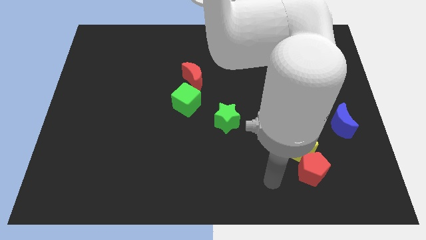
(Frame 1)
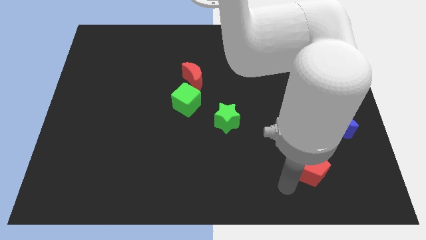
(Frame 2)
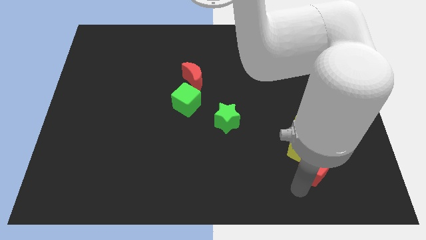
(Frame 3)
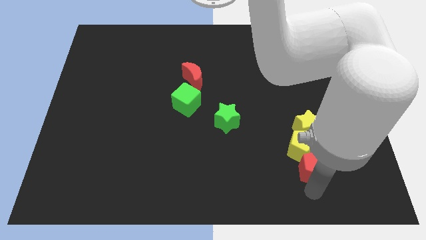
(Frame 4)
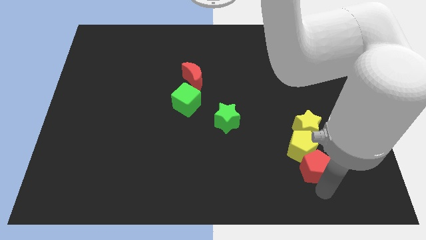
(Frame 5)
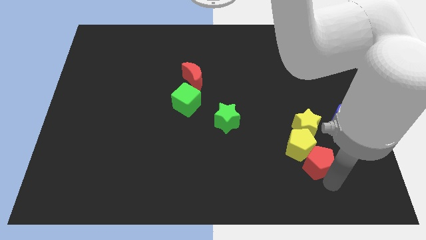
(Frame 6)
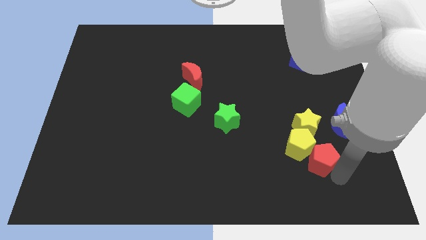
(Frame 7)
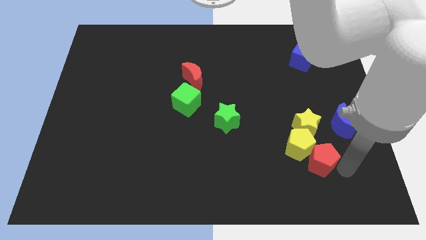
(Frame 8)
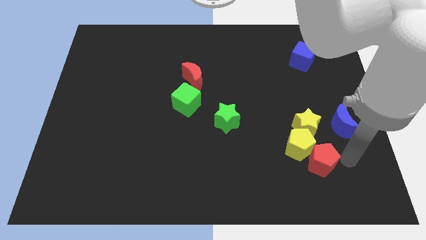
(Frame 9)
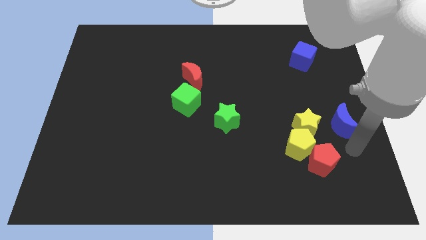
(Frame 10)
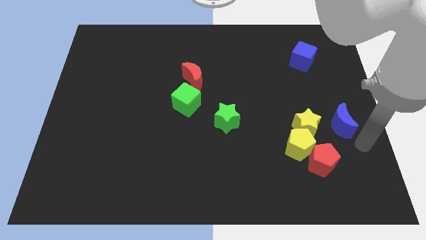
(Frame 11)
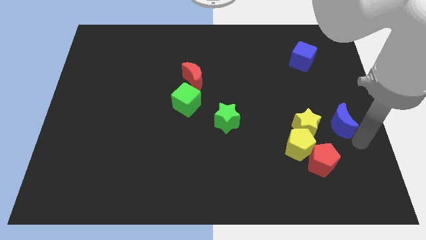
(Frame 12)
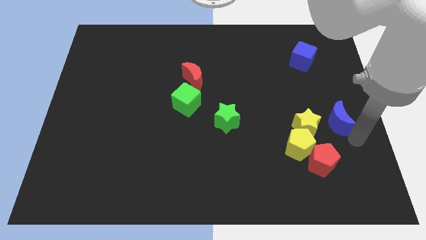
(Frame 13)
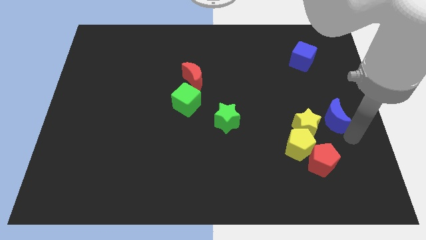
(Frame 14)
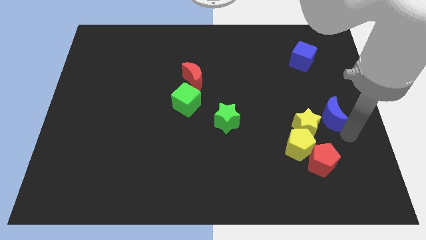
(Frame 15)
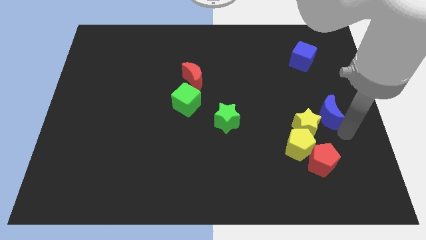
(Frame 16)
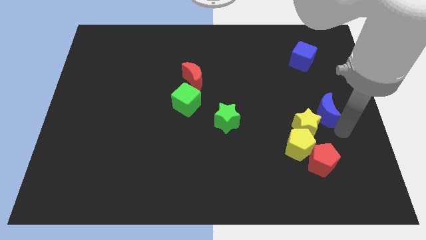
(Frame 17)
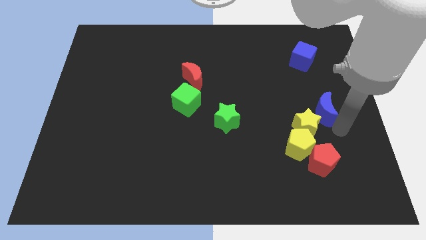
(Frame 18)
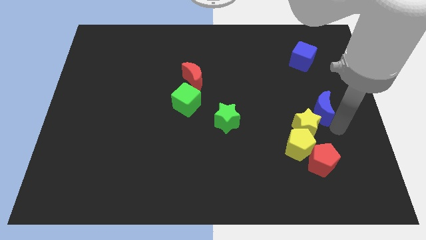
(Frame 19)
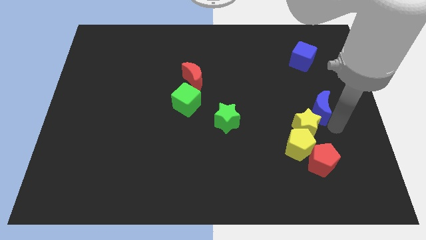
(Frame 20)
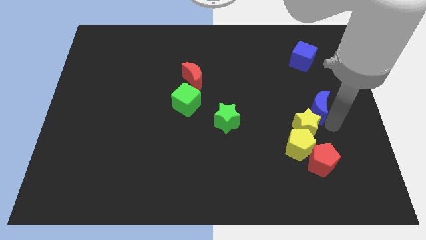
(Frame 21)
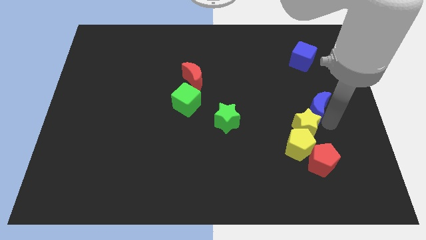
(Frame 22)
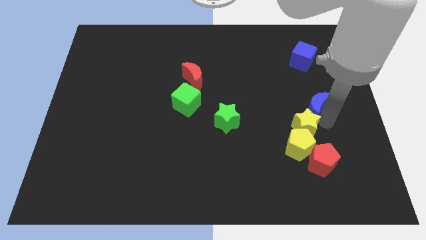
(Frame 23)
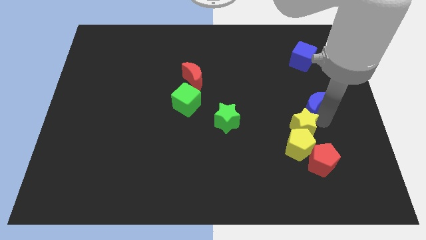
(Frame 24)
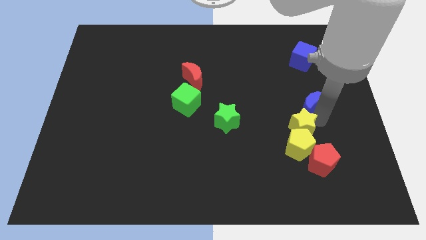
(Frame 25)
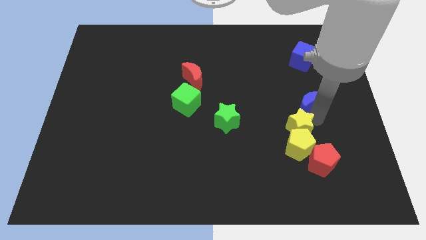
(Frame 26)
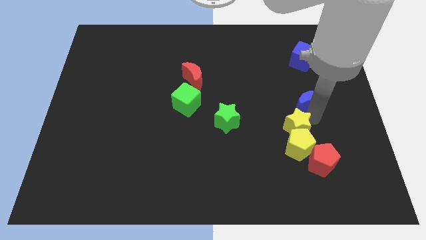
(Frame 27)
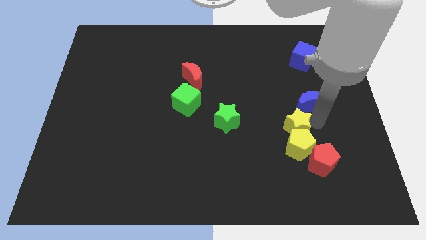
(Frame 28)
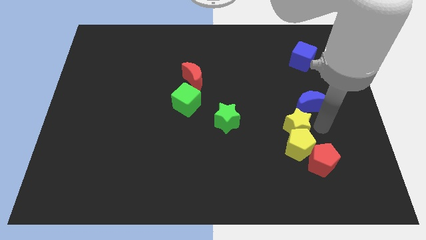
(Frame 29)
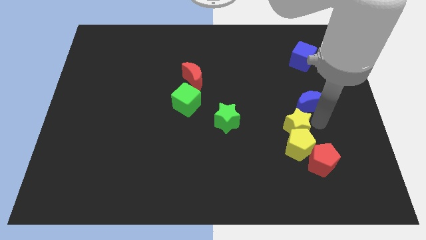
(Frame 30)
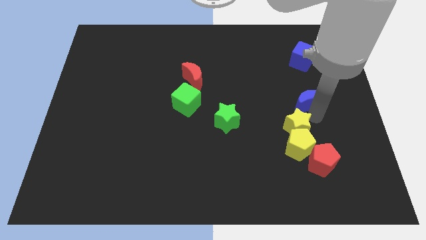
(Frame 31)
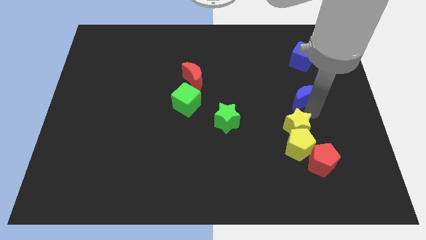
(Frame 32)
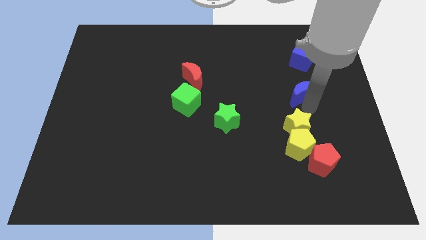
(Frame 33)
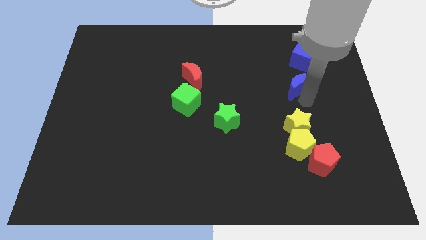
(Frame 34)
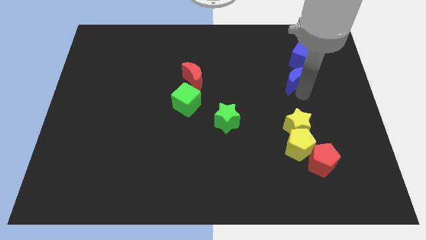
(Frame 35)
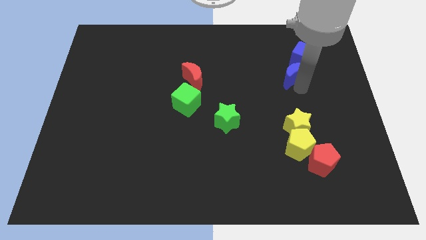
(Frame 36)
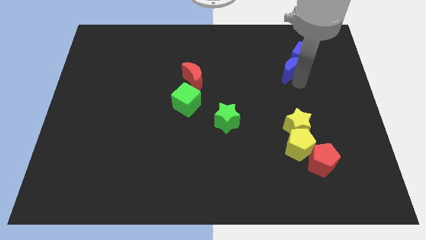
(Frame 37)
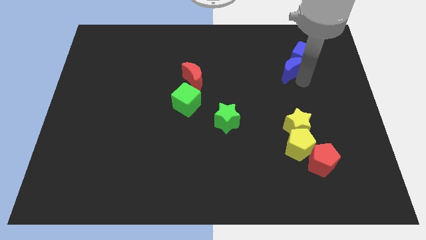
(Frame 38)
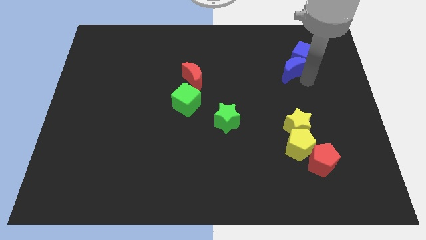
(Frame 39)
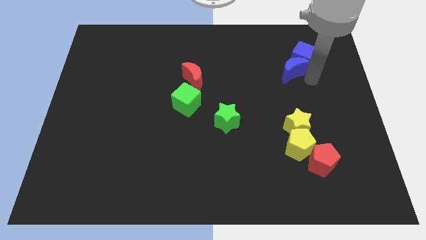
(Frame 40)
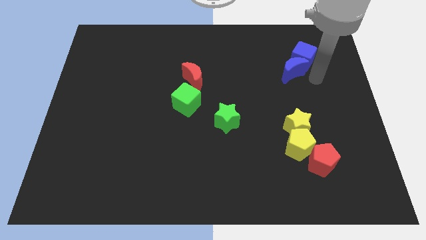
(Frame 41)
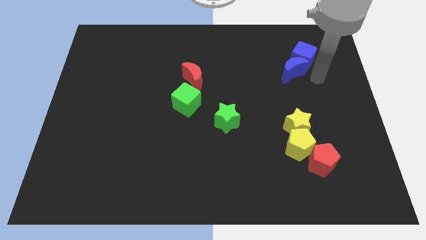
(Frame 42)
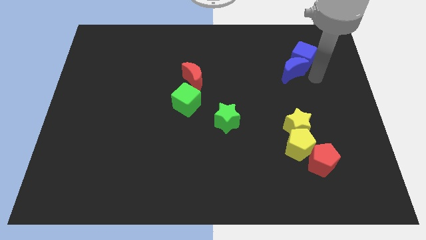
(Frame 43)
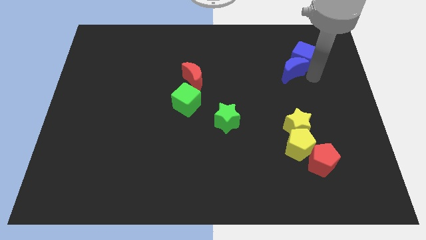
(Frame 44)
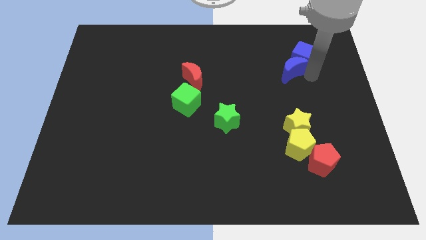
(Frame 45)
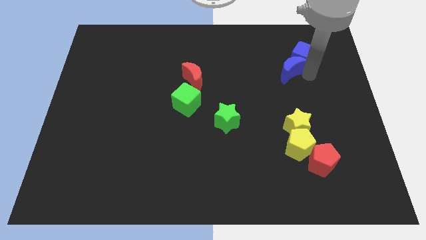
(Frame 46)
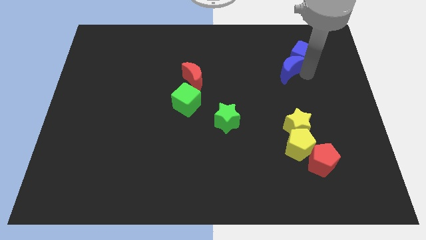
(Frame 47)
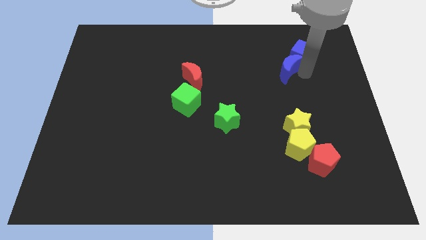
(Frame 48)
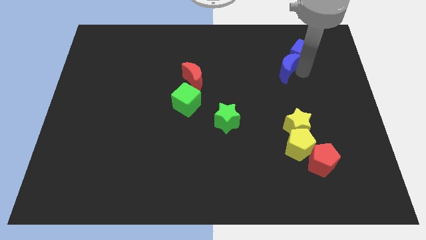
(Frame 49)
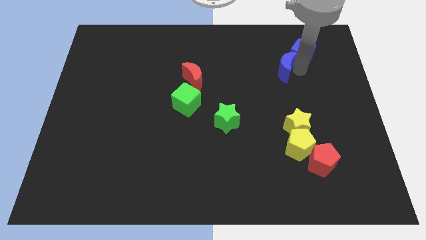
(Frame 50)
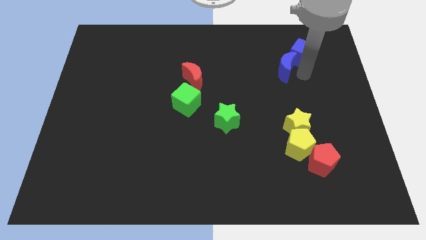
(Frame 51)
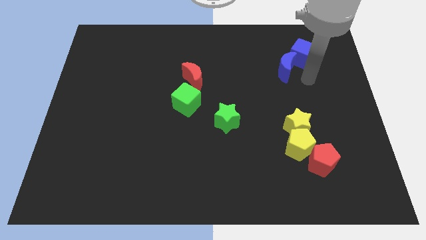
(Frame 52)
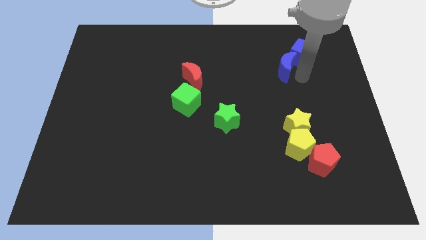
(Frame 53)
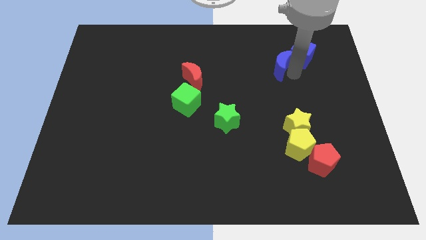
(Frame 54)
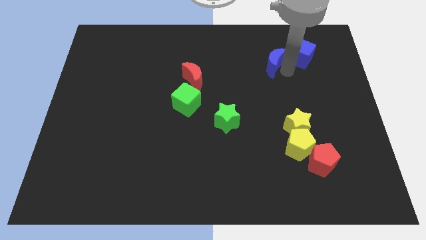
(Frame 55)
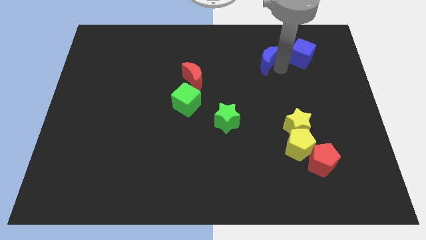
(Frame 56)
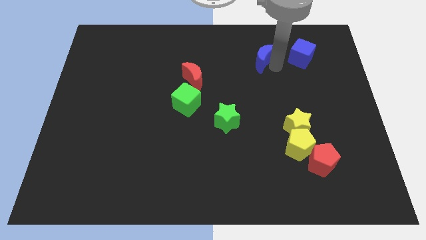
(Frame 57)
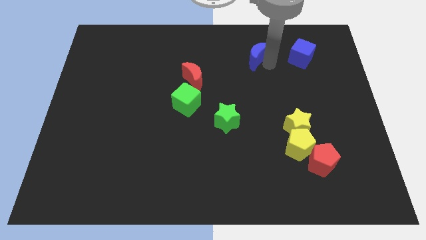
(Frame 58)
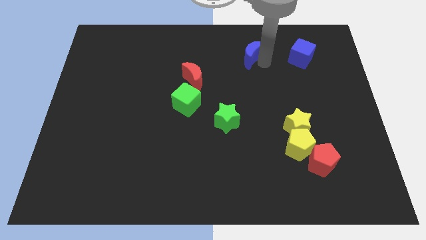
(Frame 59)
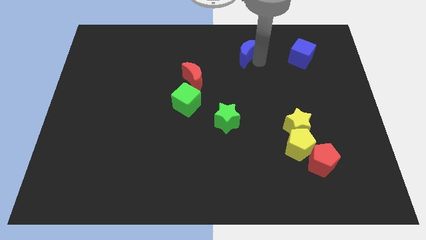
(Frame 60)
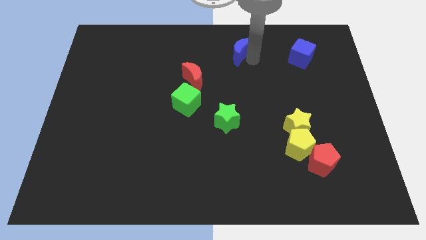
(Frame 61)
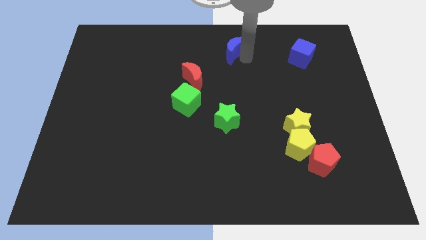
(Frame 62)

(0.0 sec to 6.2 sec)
put the blue moon to the top

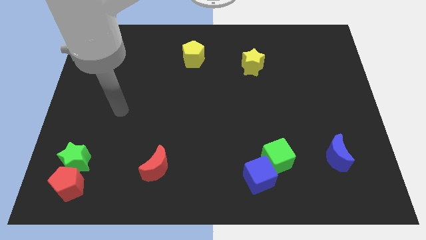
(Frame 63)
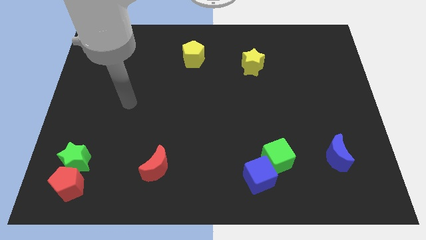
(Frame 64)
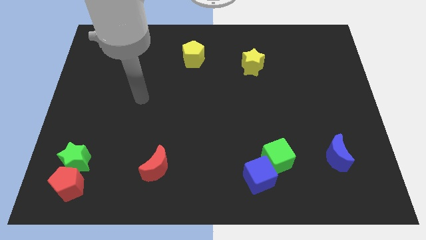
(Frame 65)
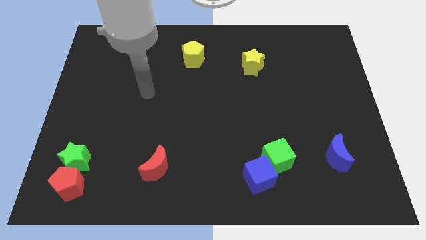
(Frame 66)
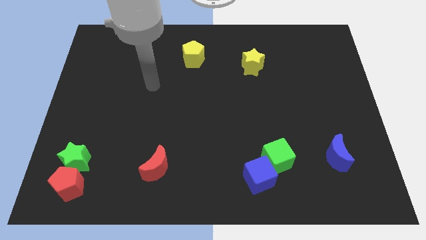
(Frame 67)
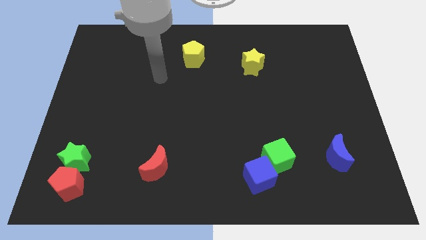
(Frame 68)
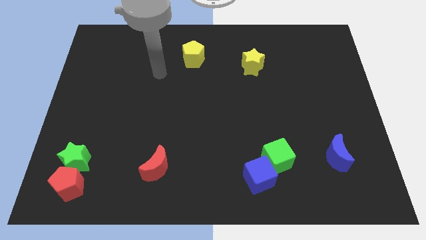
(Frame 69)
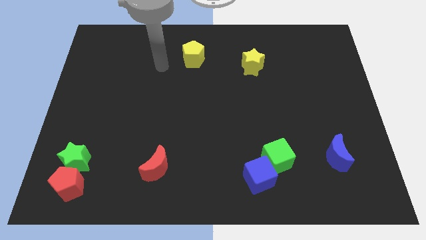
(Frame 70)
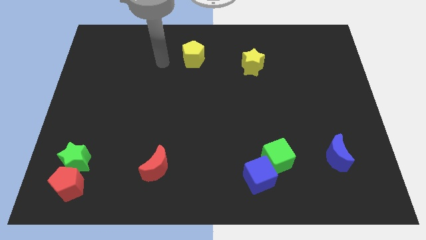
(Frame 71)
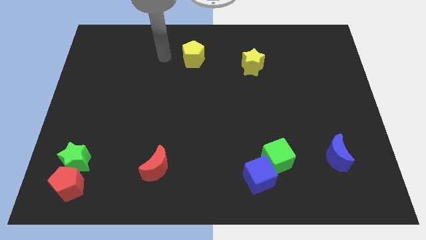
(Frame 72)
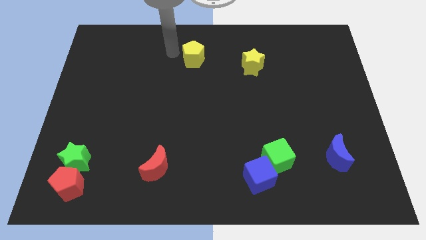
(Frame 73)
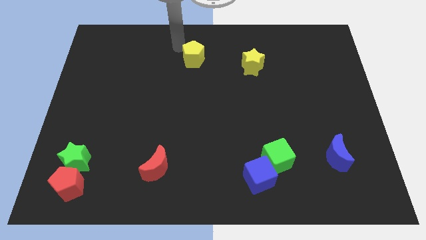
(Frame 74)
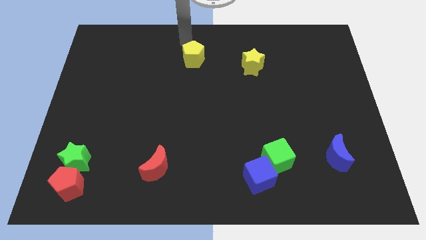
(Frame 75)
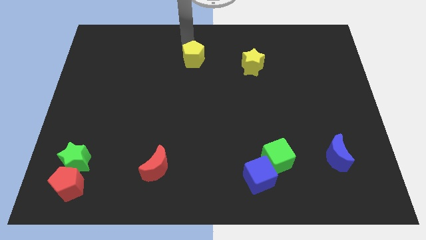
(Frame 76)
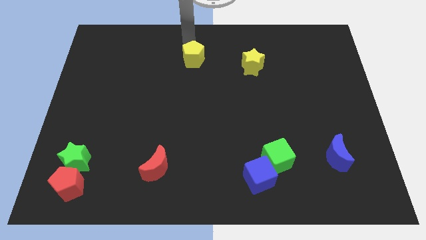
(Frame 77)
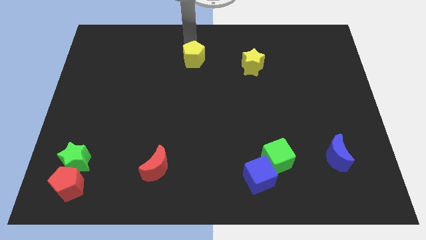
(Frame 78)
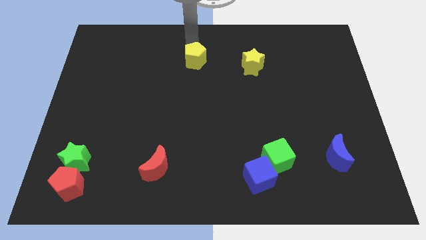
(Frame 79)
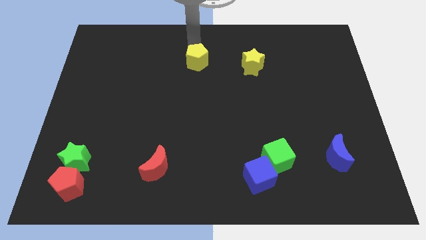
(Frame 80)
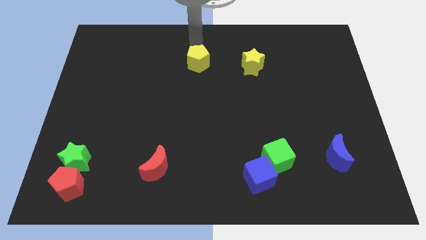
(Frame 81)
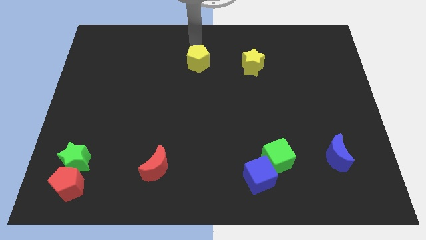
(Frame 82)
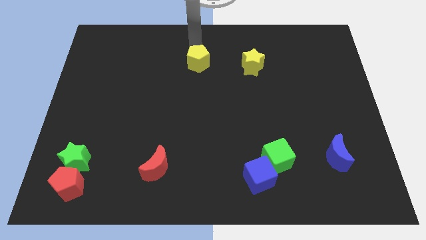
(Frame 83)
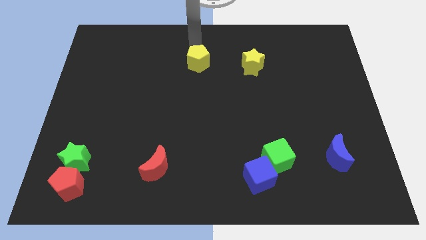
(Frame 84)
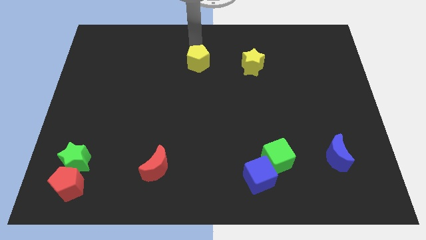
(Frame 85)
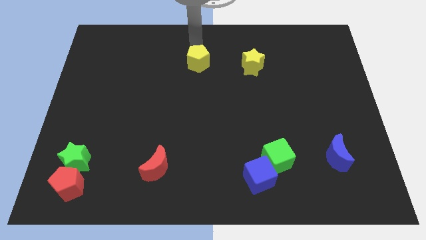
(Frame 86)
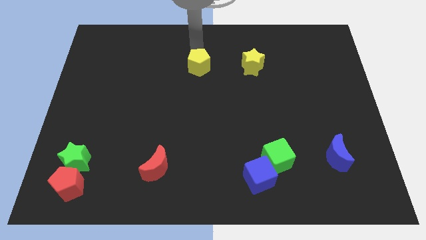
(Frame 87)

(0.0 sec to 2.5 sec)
slide the yellow pentagon to the middle
